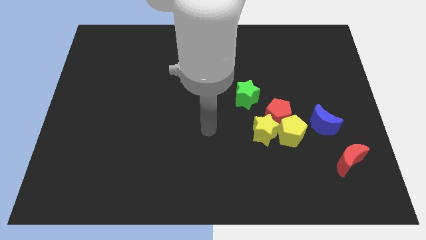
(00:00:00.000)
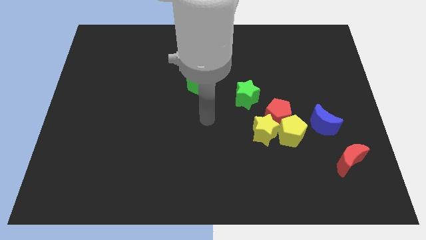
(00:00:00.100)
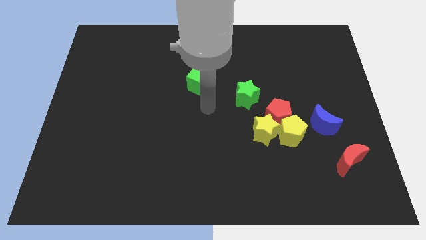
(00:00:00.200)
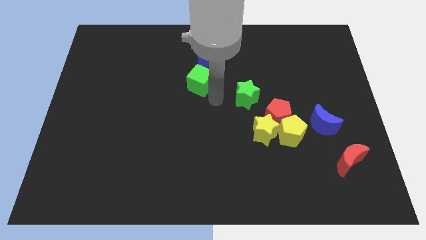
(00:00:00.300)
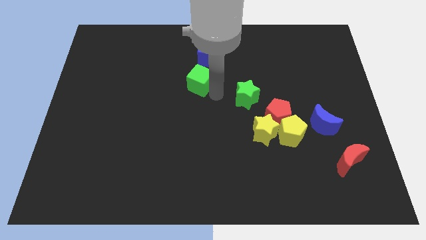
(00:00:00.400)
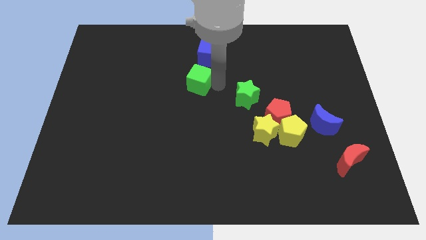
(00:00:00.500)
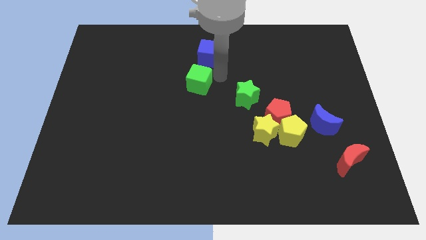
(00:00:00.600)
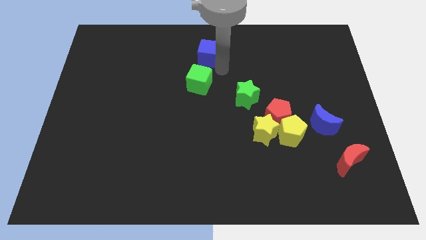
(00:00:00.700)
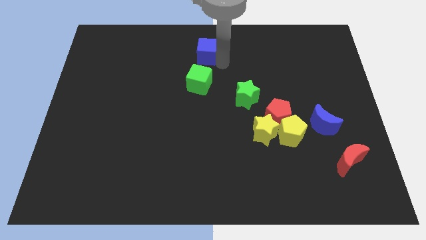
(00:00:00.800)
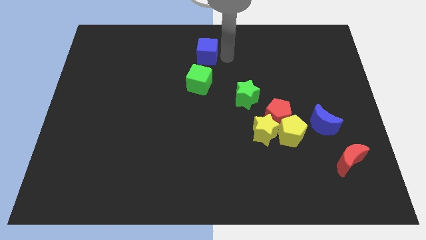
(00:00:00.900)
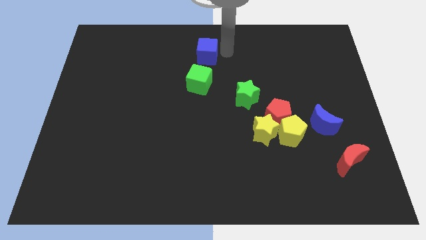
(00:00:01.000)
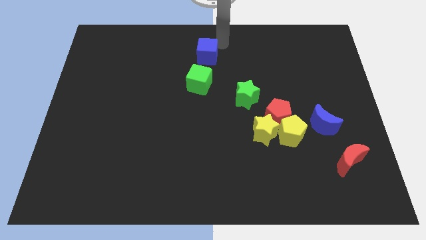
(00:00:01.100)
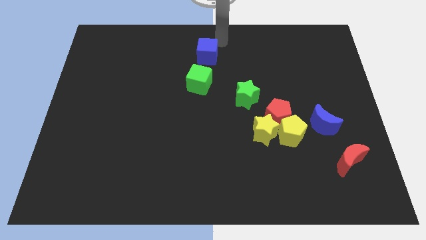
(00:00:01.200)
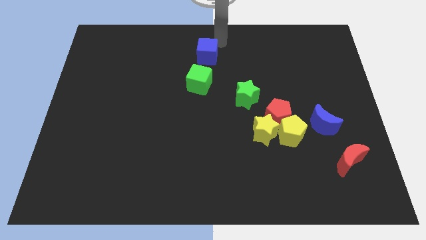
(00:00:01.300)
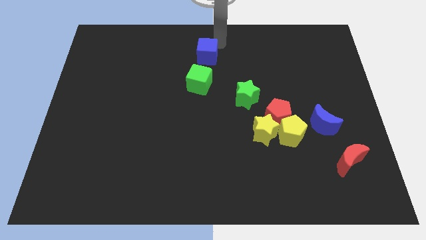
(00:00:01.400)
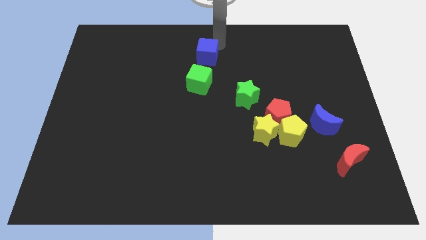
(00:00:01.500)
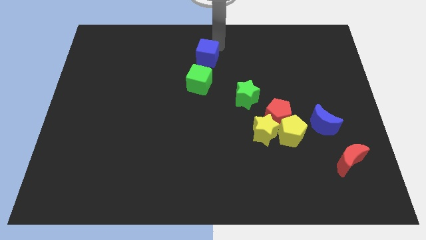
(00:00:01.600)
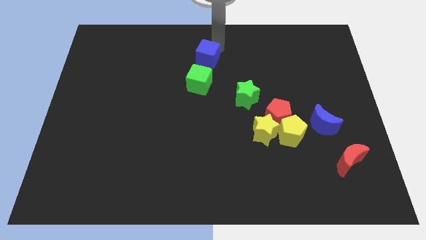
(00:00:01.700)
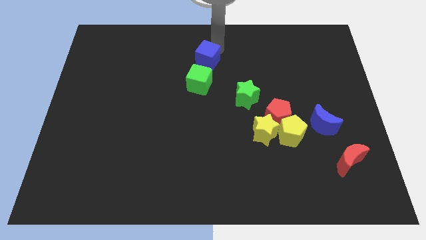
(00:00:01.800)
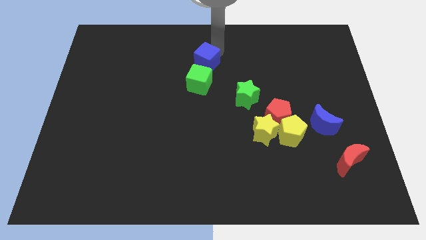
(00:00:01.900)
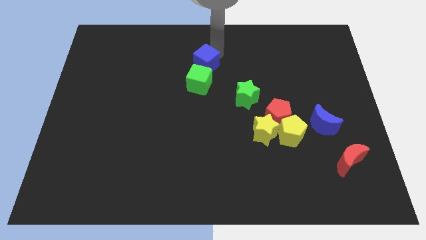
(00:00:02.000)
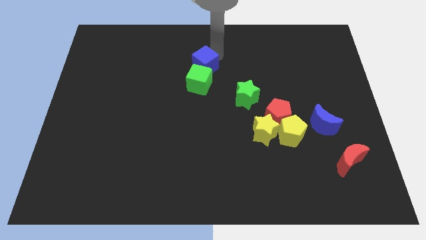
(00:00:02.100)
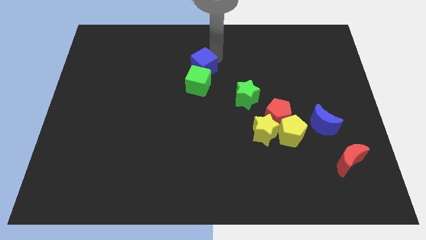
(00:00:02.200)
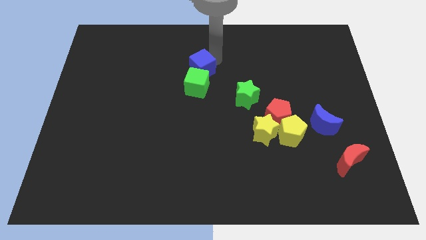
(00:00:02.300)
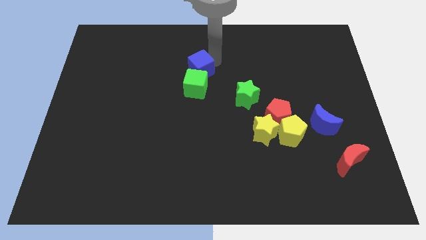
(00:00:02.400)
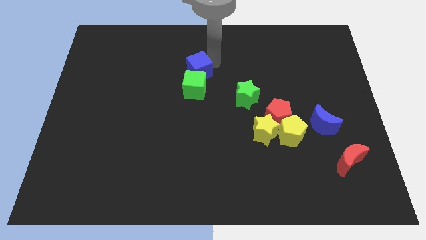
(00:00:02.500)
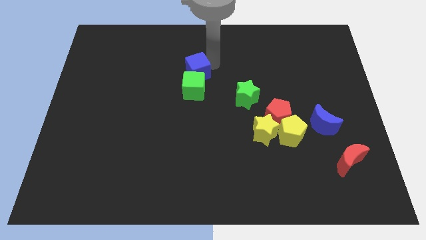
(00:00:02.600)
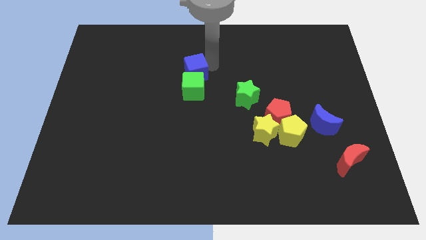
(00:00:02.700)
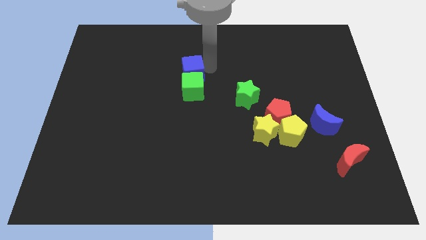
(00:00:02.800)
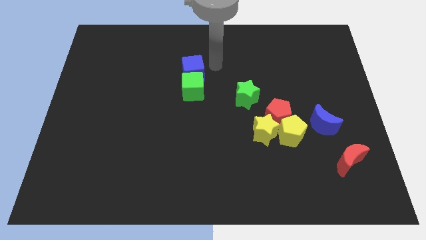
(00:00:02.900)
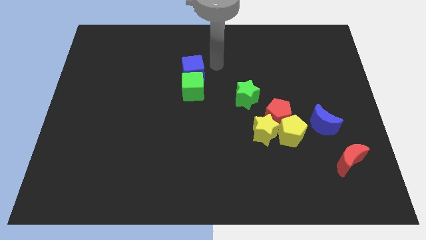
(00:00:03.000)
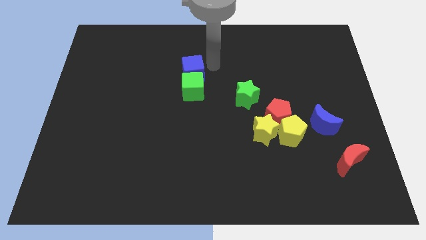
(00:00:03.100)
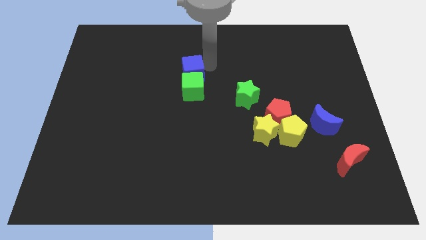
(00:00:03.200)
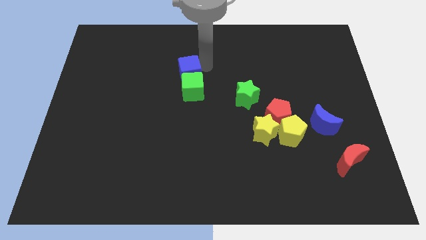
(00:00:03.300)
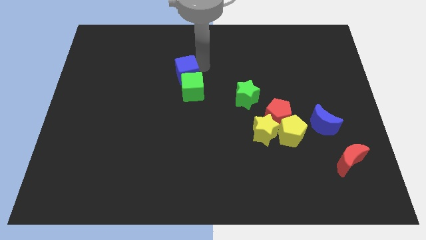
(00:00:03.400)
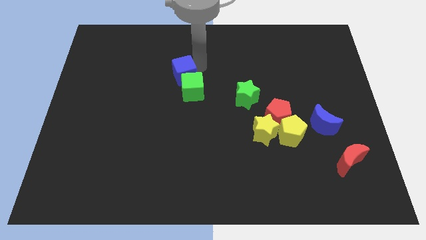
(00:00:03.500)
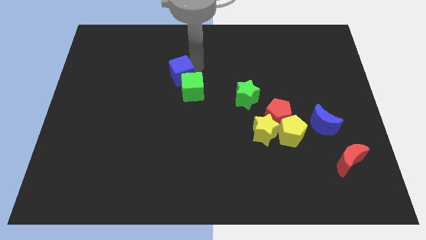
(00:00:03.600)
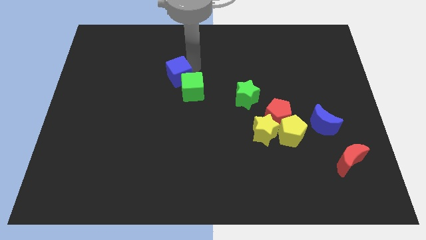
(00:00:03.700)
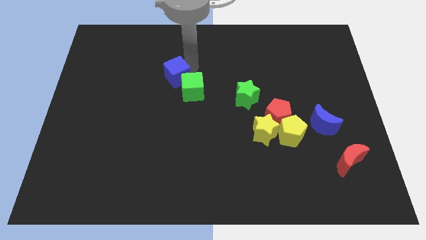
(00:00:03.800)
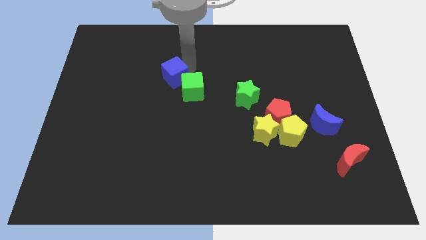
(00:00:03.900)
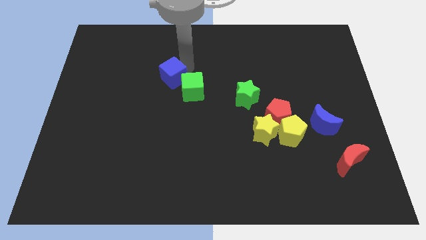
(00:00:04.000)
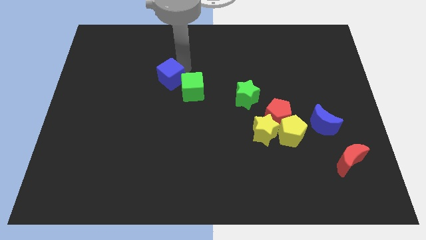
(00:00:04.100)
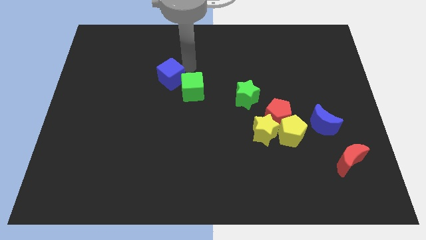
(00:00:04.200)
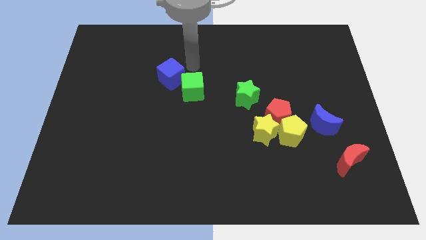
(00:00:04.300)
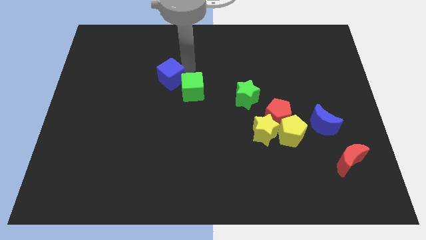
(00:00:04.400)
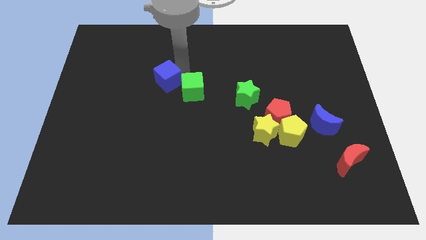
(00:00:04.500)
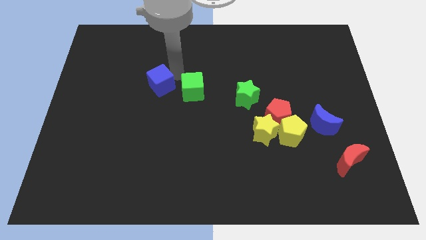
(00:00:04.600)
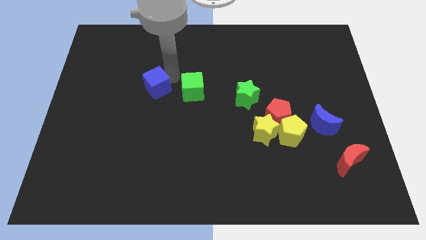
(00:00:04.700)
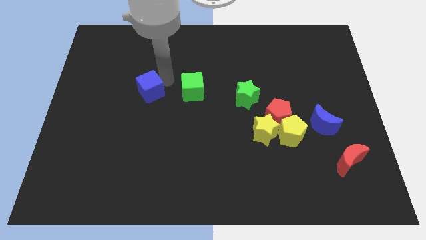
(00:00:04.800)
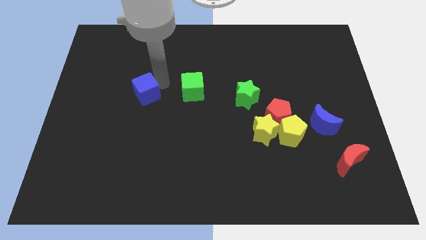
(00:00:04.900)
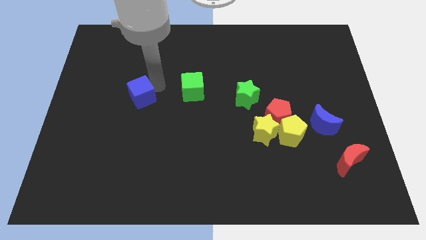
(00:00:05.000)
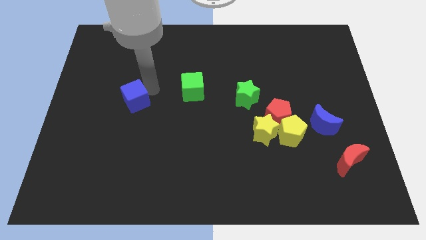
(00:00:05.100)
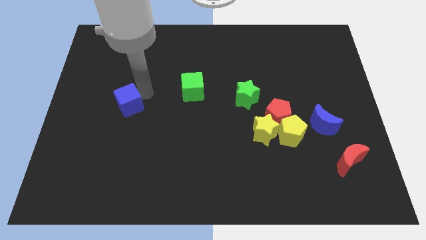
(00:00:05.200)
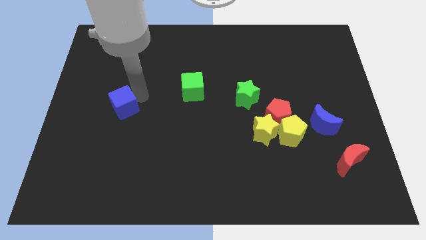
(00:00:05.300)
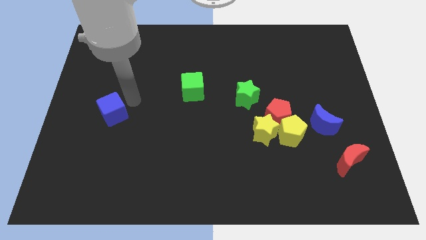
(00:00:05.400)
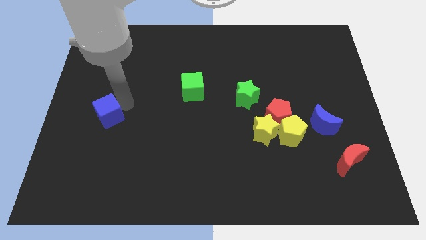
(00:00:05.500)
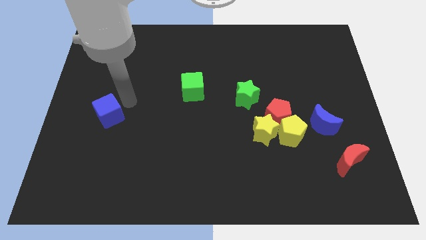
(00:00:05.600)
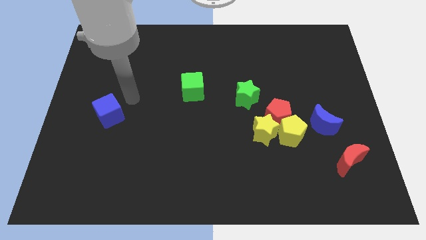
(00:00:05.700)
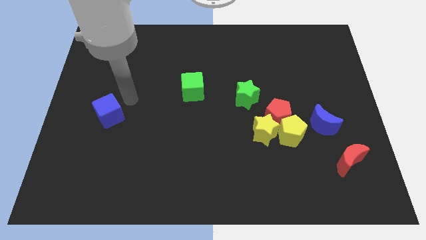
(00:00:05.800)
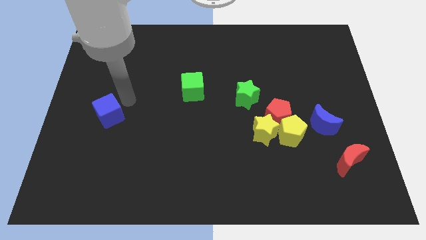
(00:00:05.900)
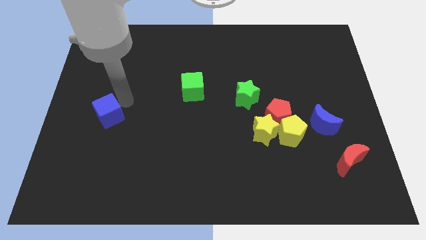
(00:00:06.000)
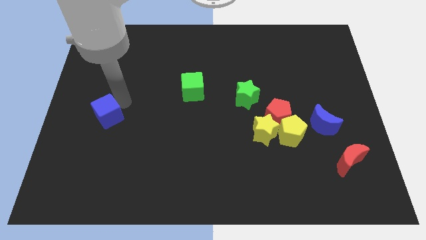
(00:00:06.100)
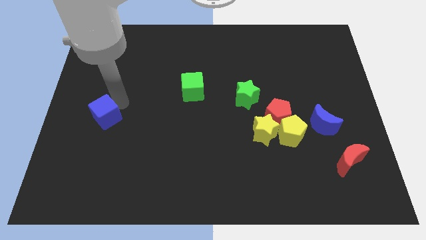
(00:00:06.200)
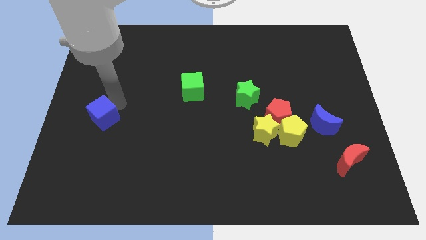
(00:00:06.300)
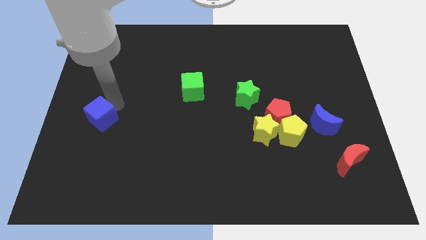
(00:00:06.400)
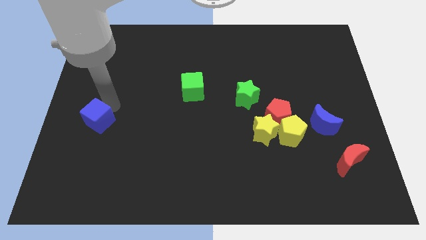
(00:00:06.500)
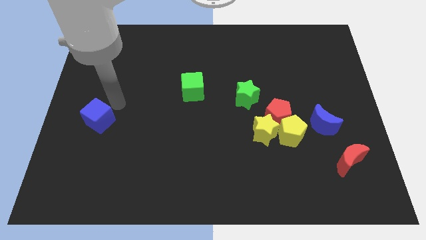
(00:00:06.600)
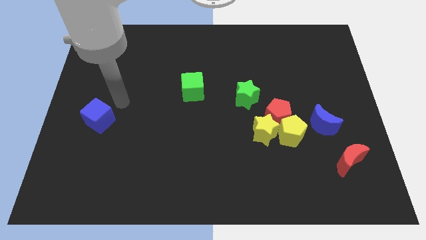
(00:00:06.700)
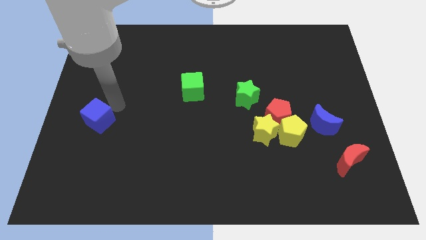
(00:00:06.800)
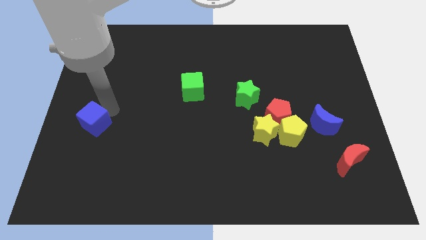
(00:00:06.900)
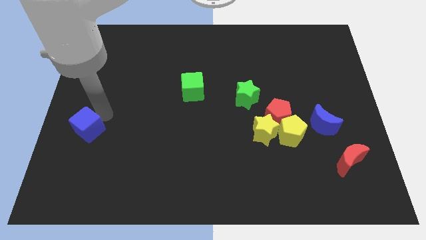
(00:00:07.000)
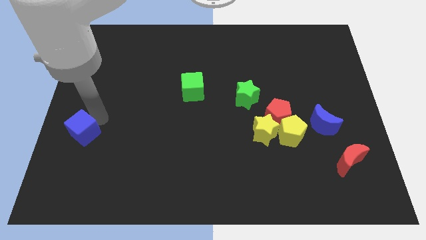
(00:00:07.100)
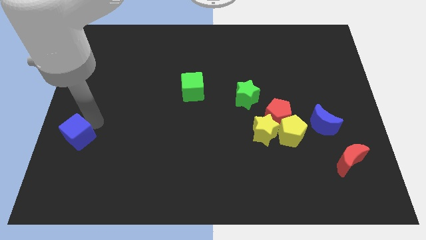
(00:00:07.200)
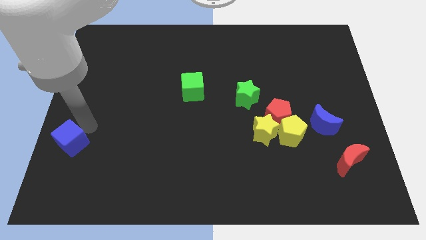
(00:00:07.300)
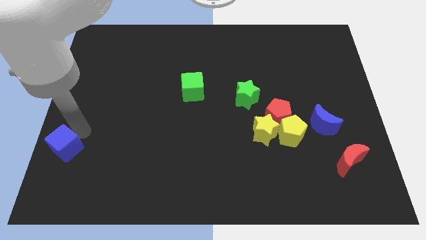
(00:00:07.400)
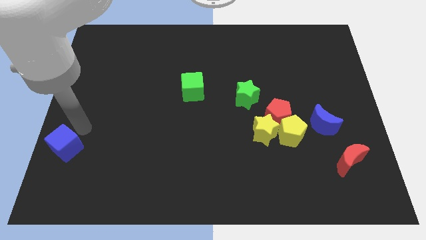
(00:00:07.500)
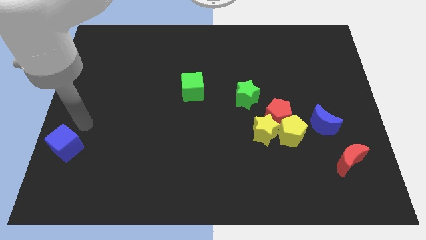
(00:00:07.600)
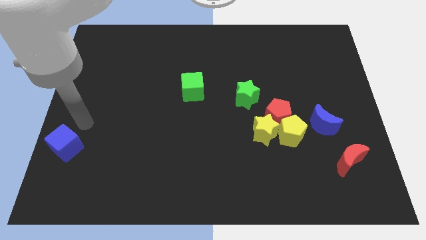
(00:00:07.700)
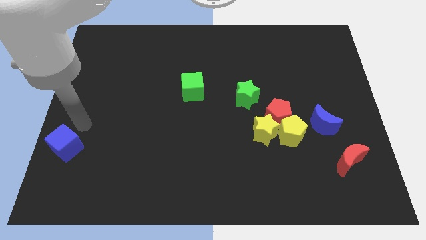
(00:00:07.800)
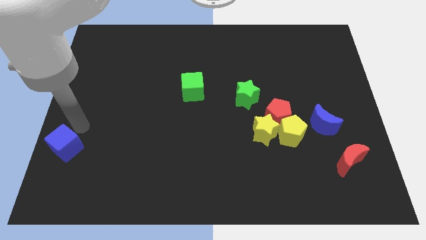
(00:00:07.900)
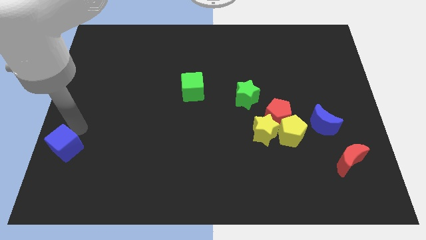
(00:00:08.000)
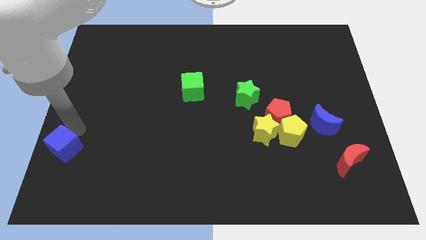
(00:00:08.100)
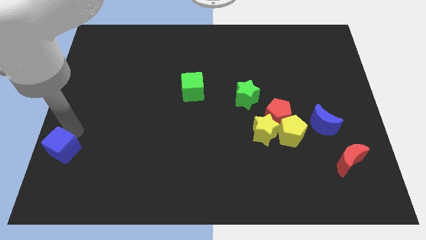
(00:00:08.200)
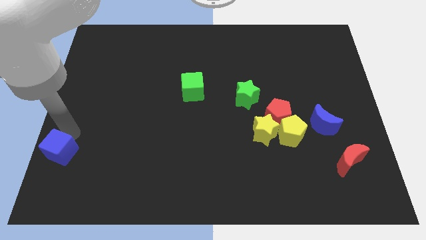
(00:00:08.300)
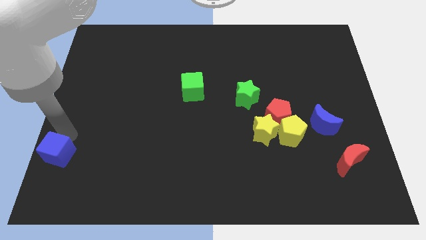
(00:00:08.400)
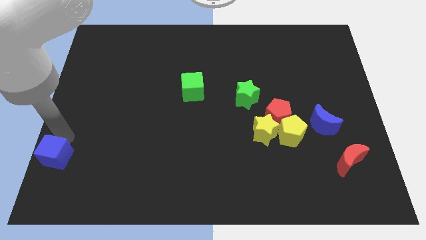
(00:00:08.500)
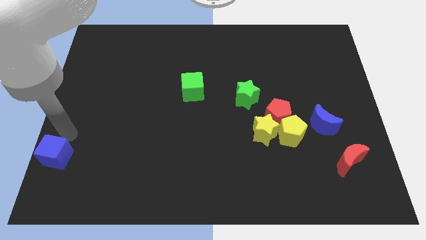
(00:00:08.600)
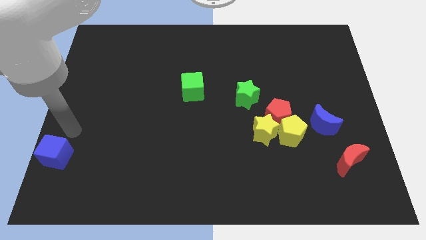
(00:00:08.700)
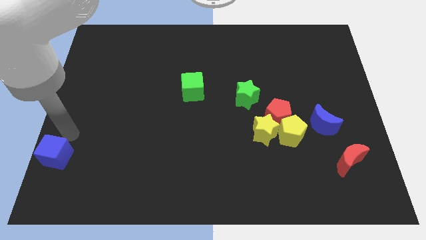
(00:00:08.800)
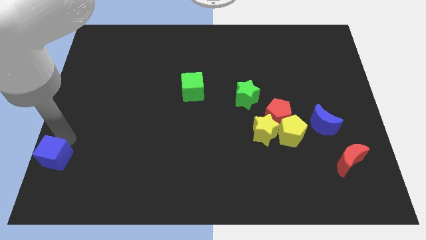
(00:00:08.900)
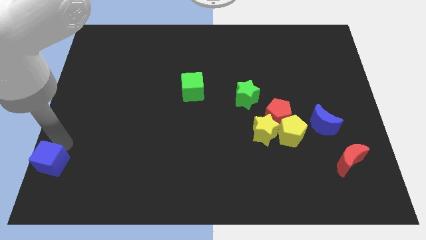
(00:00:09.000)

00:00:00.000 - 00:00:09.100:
slide the blue cube to the bottom left of the board
